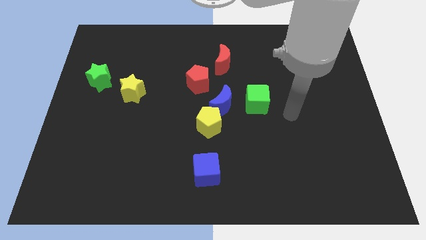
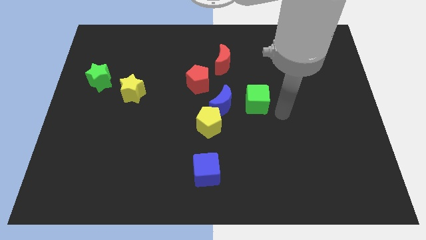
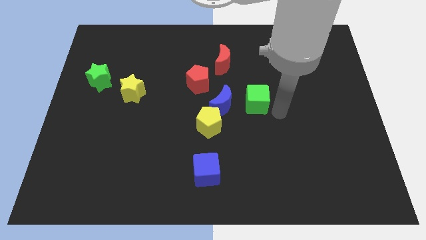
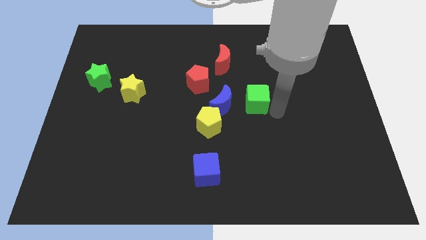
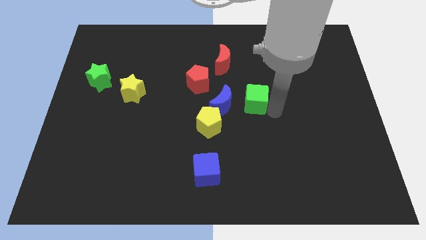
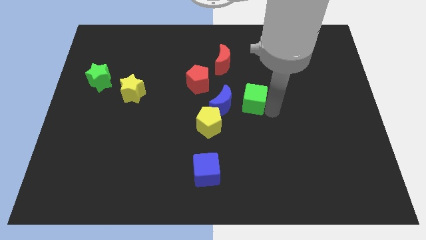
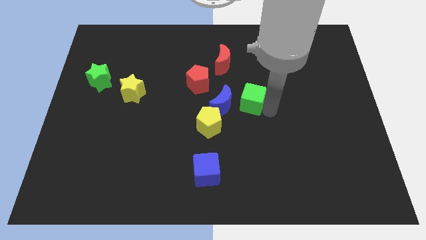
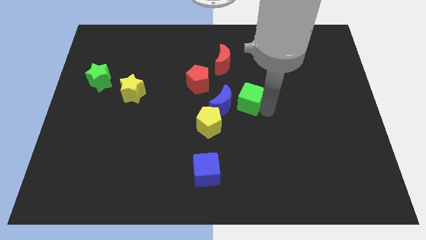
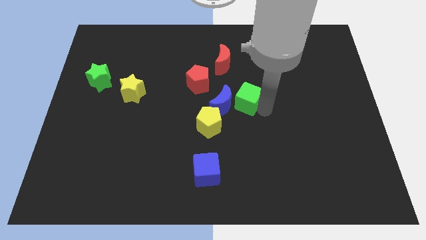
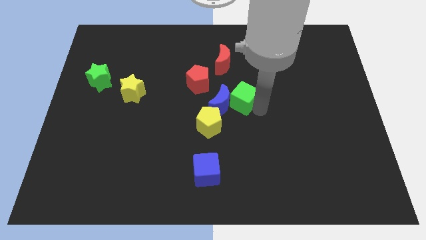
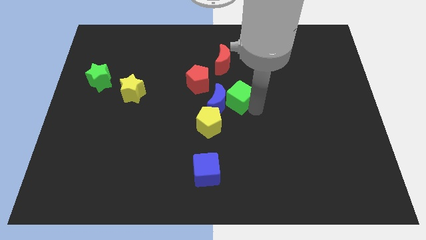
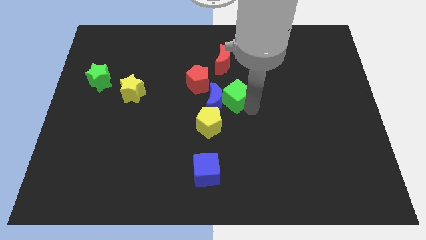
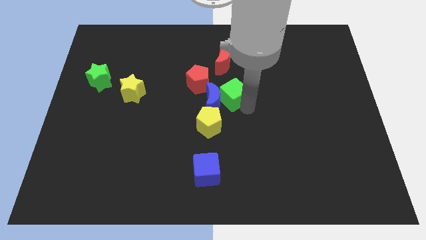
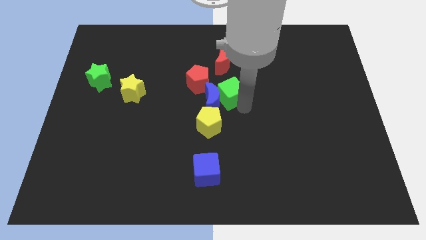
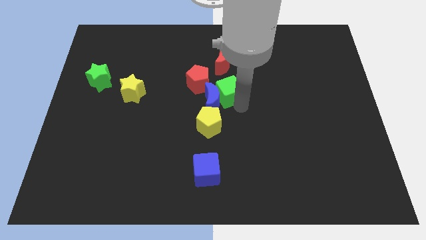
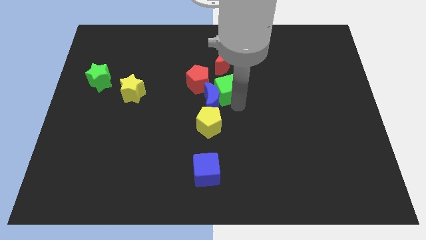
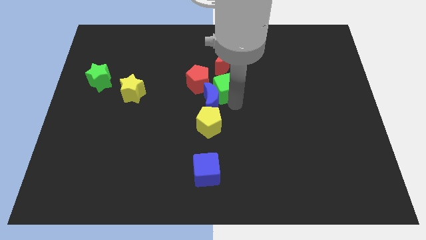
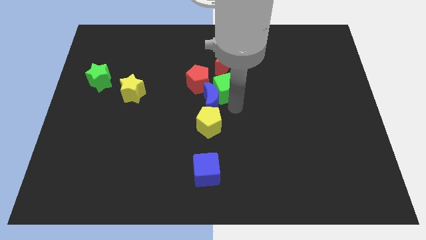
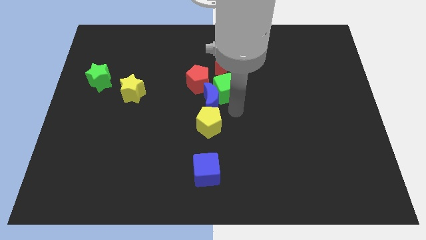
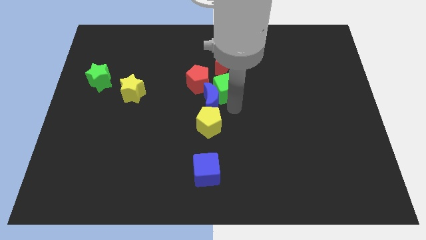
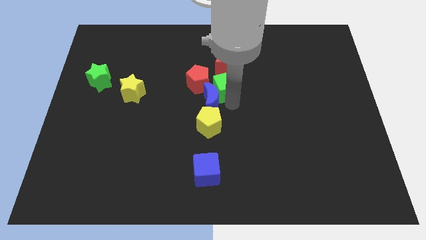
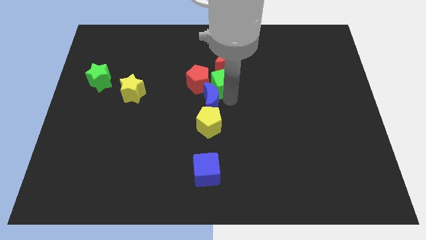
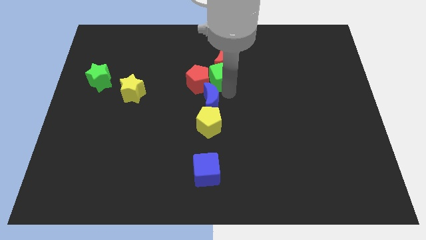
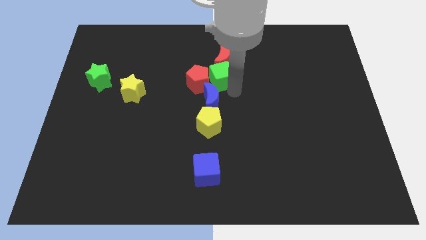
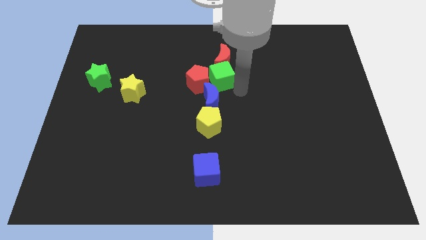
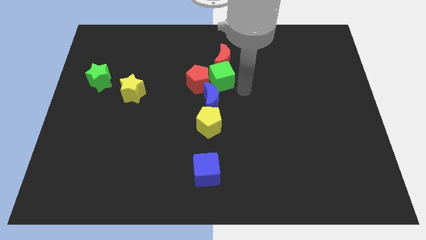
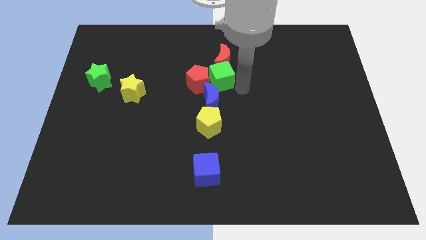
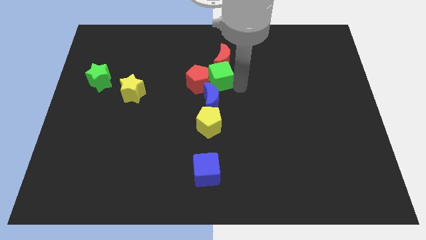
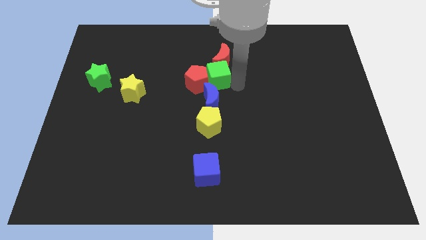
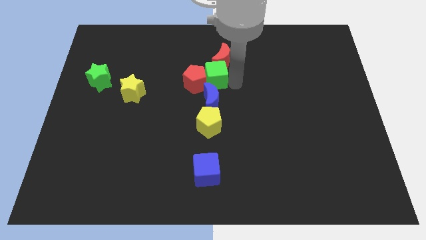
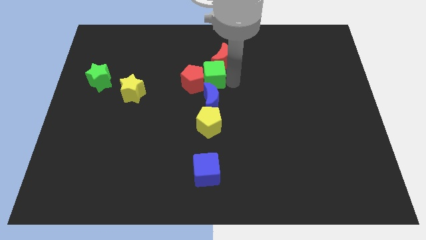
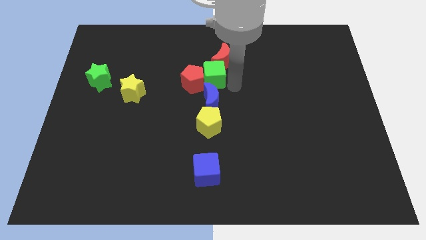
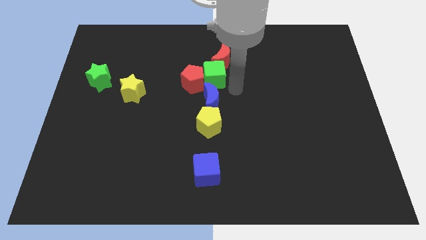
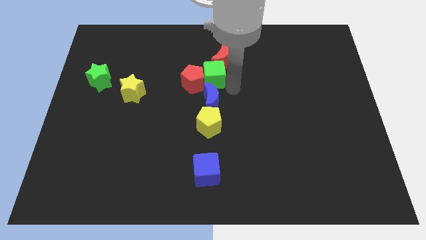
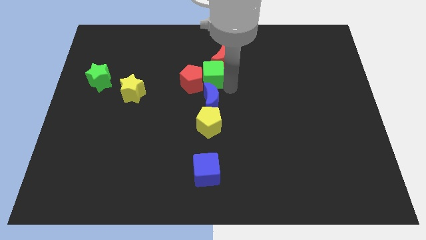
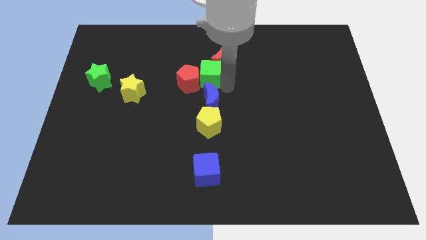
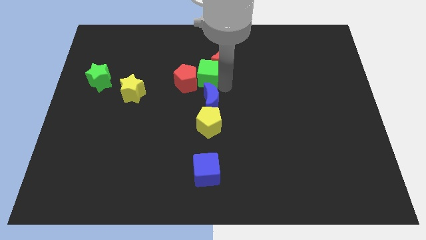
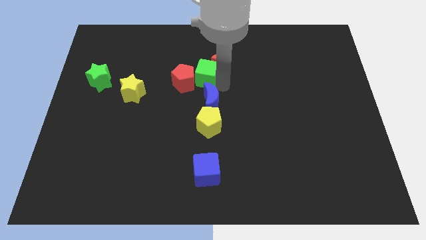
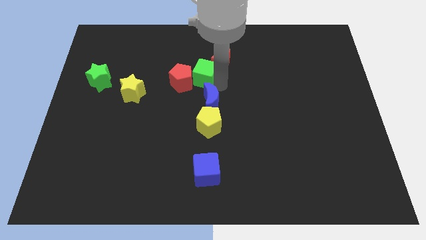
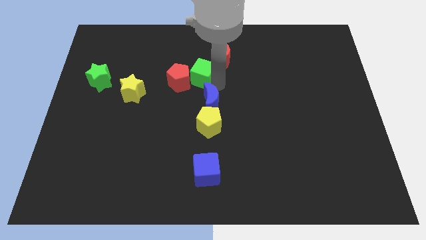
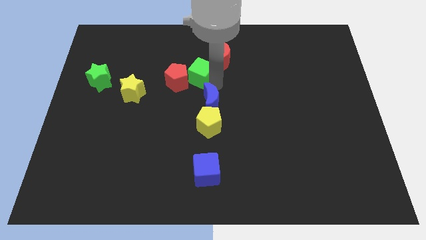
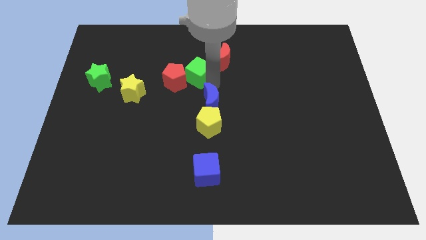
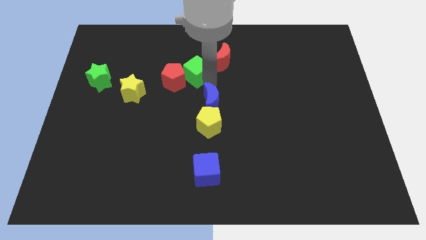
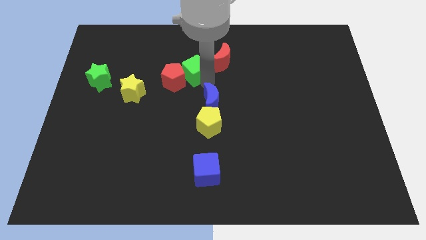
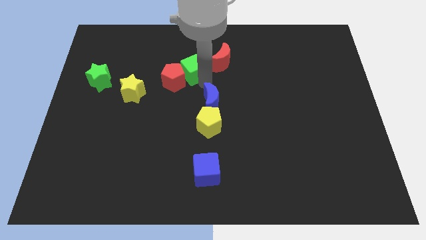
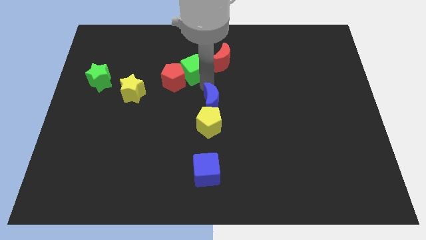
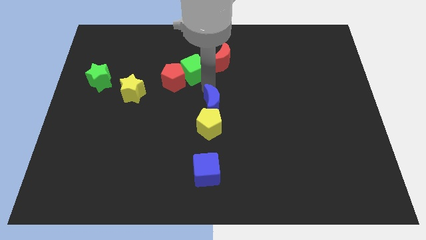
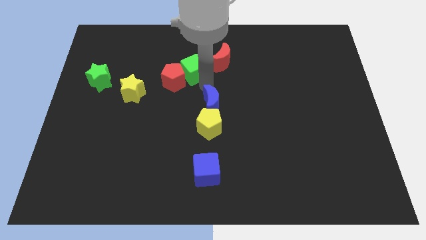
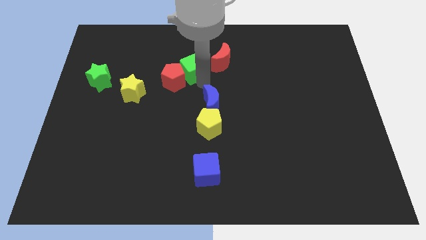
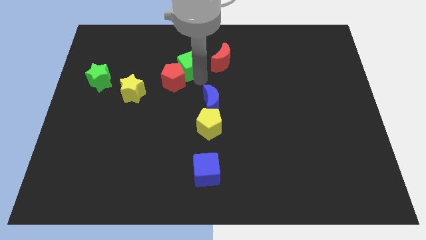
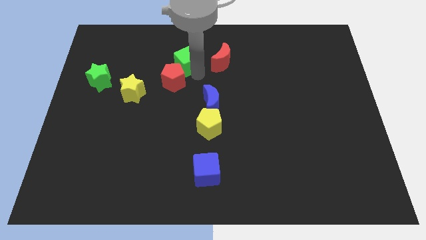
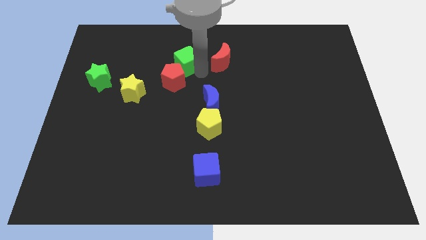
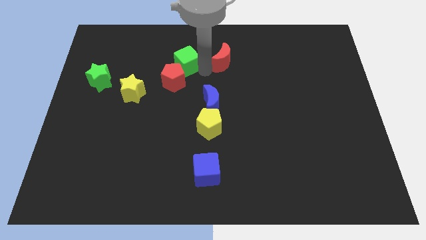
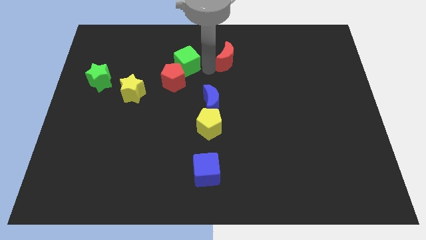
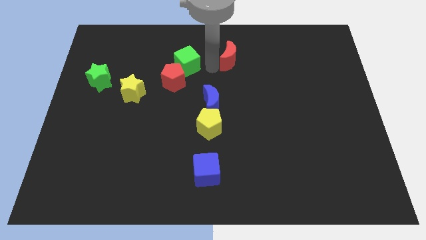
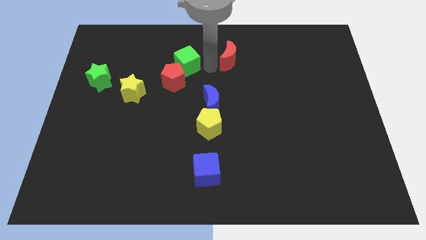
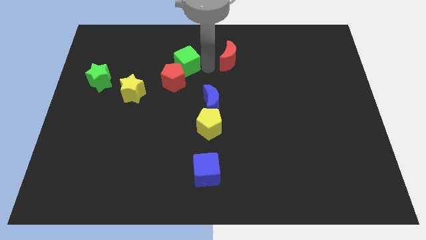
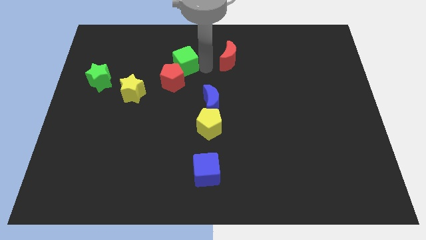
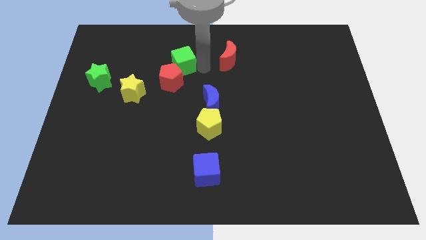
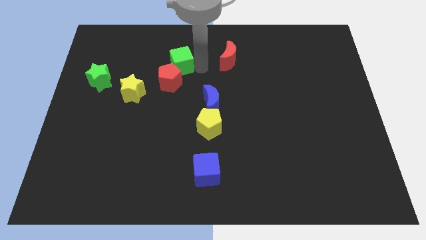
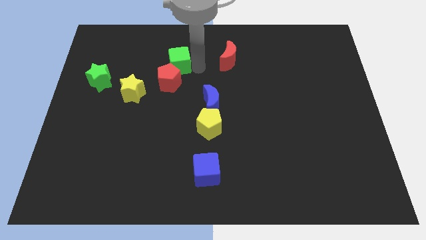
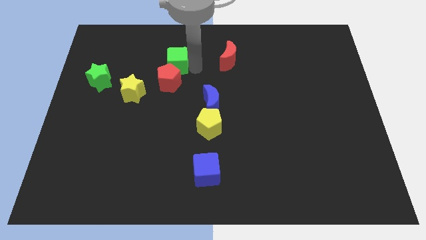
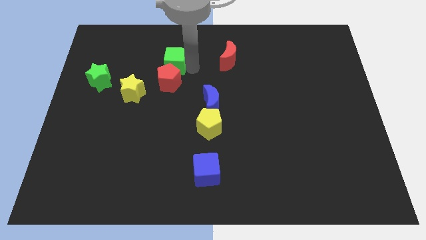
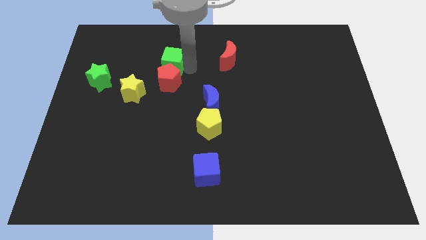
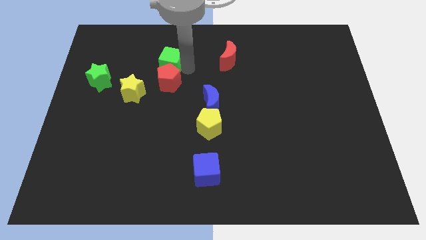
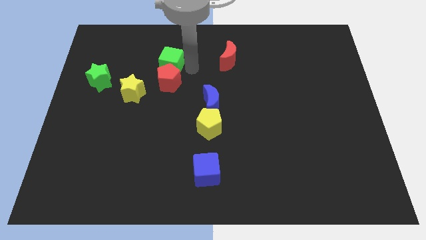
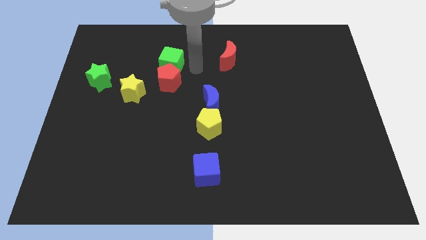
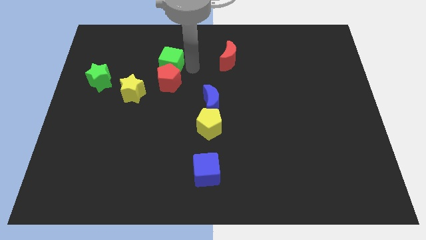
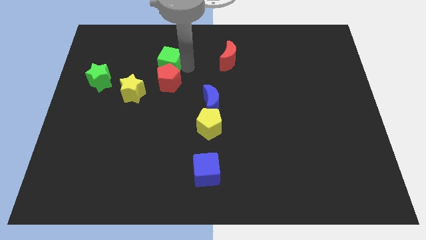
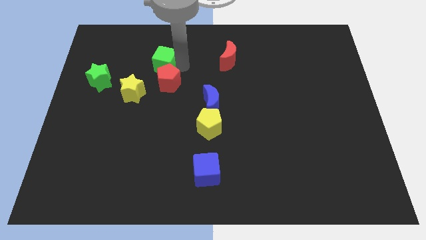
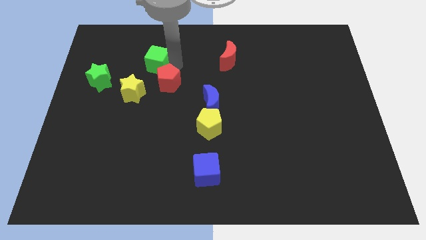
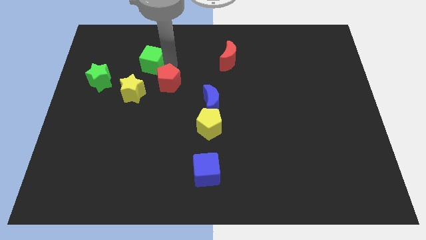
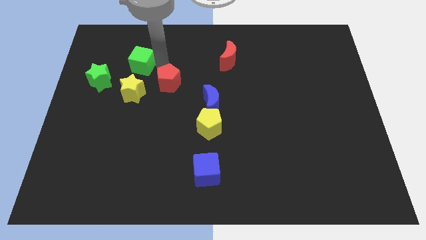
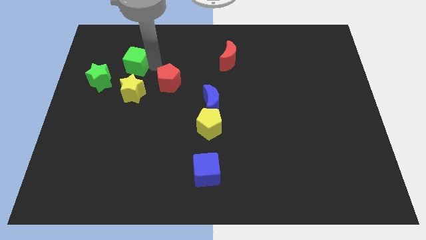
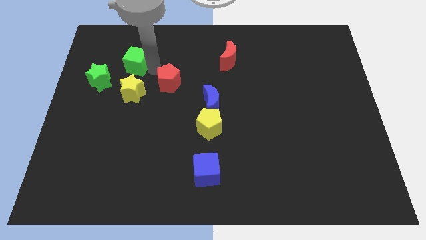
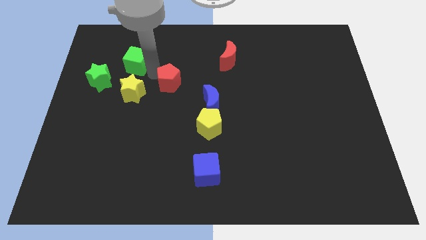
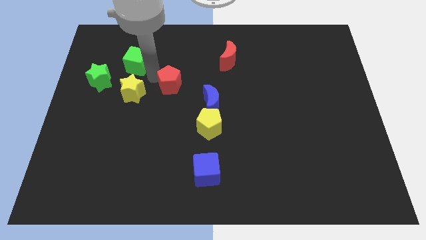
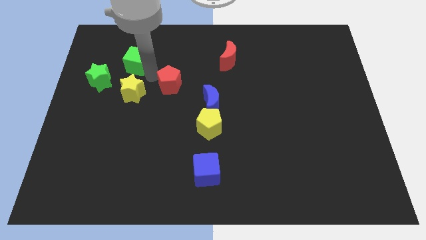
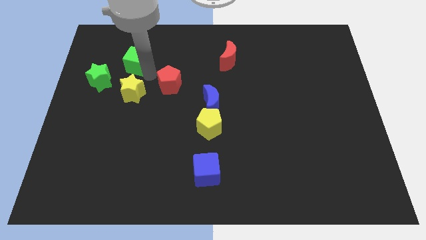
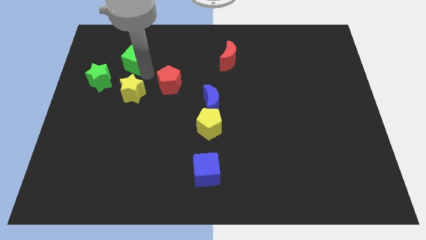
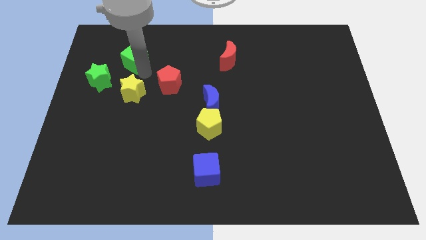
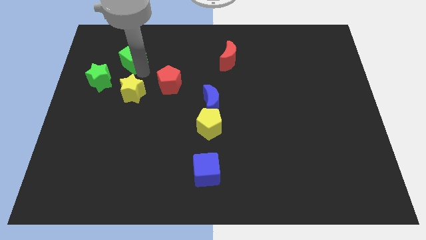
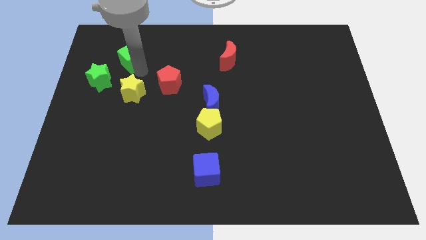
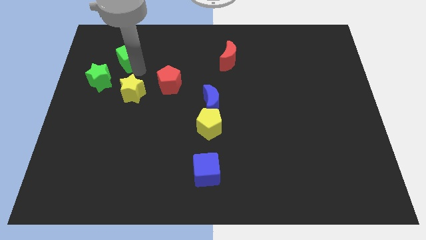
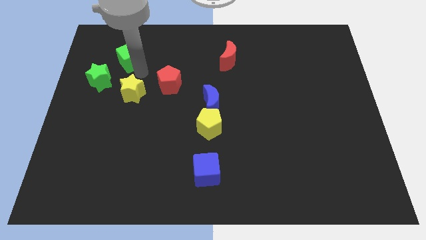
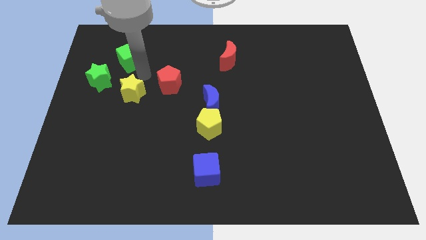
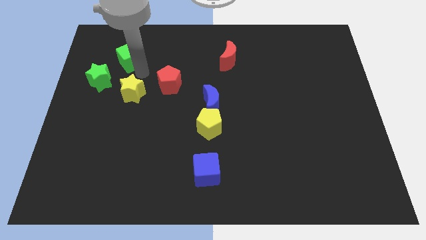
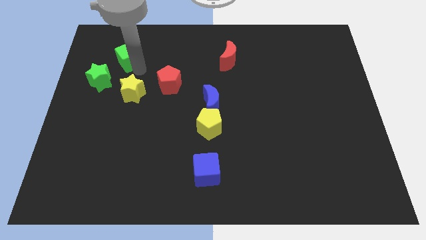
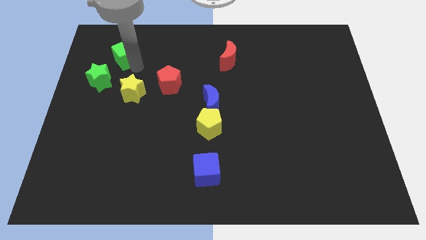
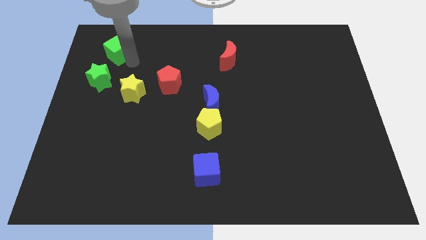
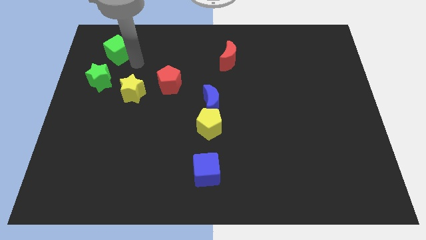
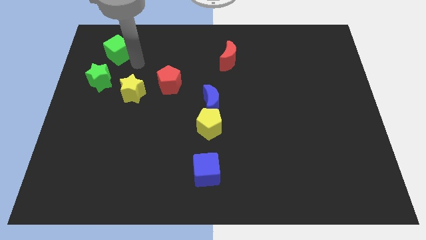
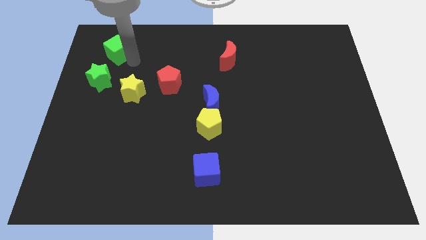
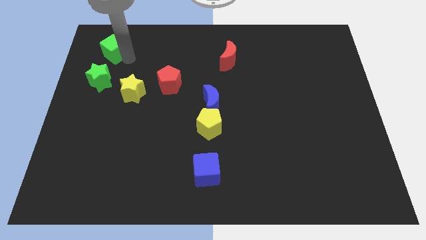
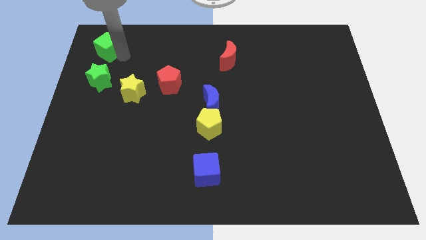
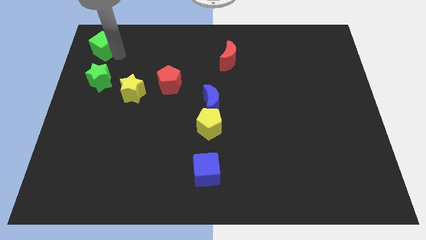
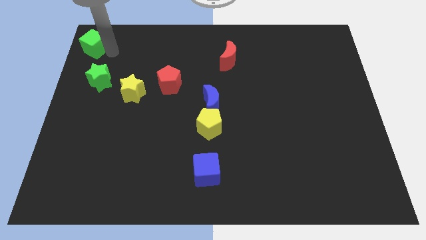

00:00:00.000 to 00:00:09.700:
put the green cube to the top left
